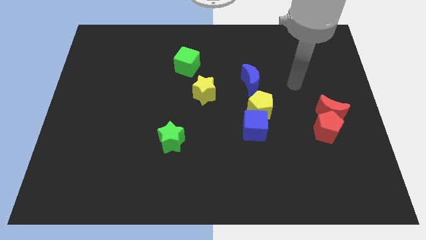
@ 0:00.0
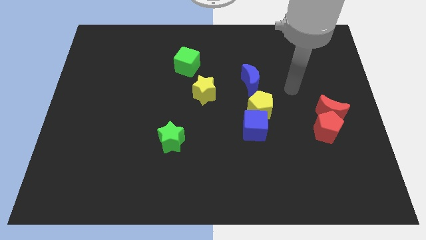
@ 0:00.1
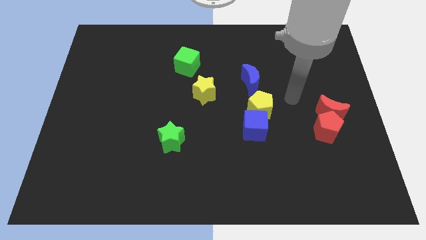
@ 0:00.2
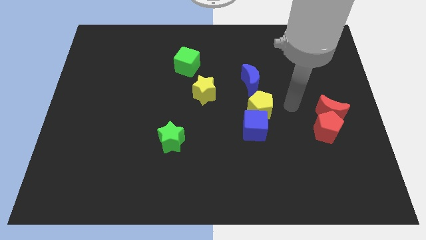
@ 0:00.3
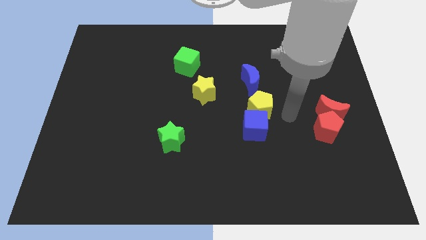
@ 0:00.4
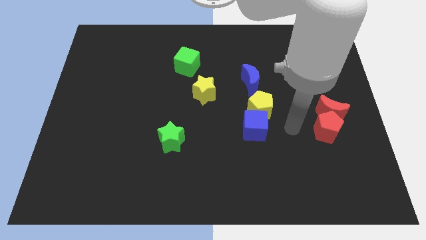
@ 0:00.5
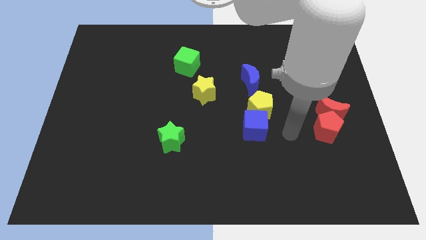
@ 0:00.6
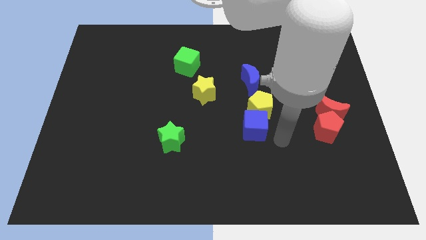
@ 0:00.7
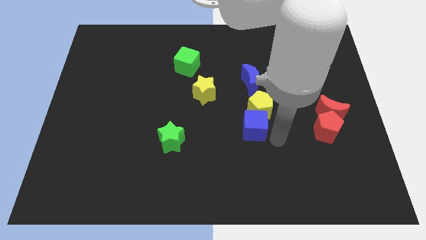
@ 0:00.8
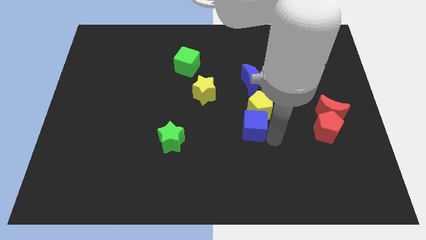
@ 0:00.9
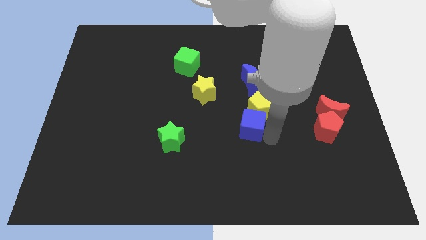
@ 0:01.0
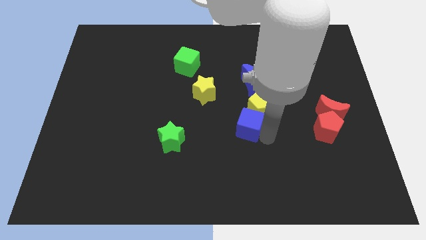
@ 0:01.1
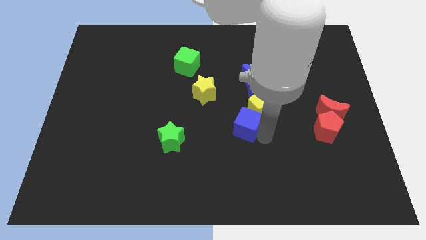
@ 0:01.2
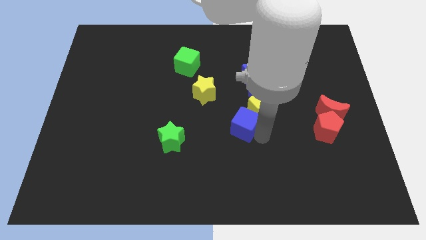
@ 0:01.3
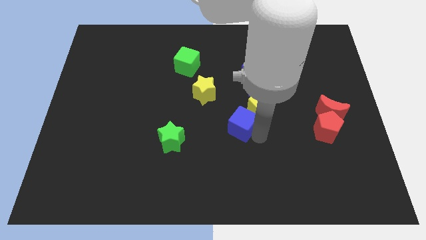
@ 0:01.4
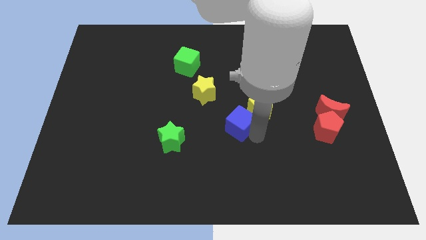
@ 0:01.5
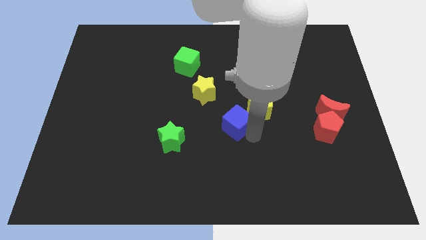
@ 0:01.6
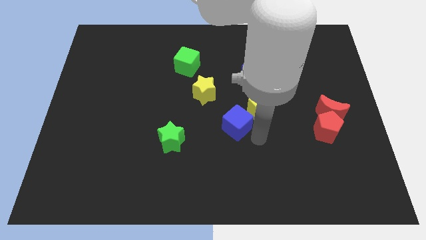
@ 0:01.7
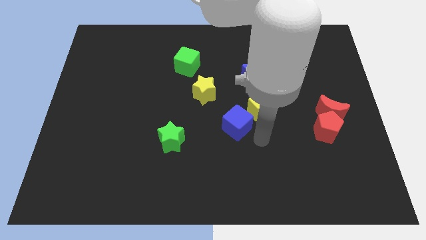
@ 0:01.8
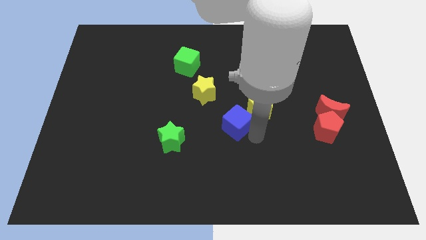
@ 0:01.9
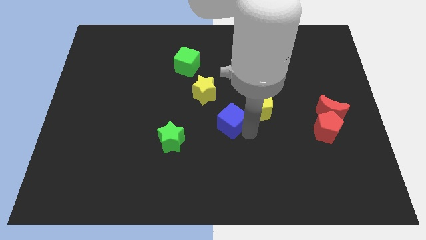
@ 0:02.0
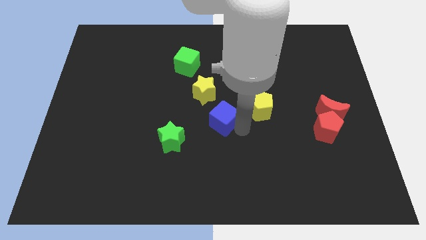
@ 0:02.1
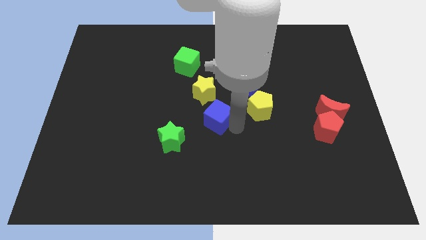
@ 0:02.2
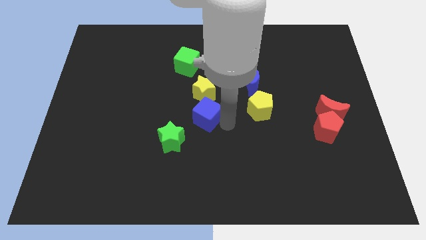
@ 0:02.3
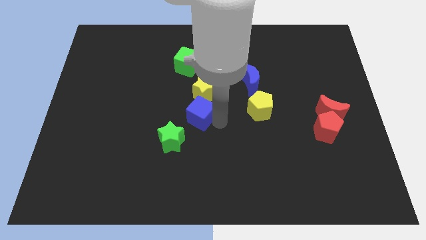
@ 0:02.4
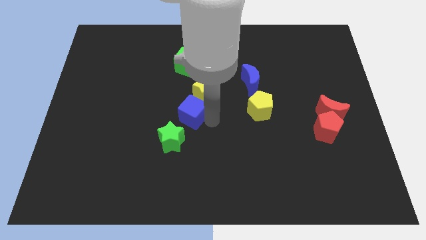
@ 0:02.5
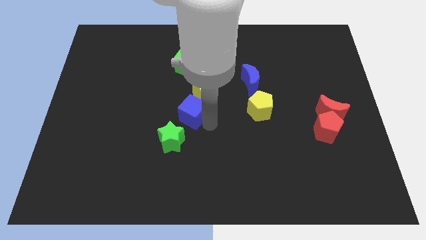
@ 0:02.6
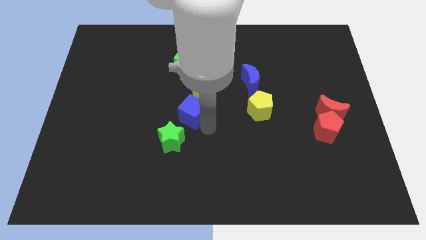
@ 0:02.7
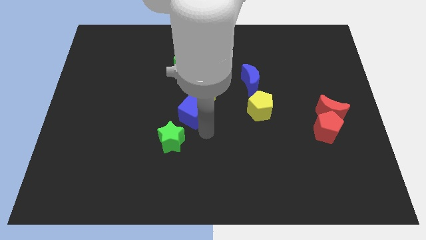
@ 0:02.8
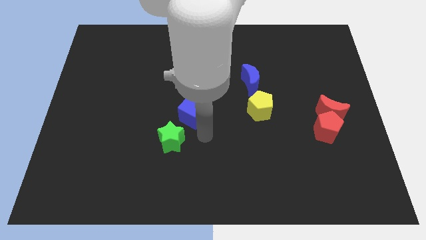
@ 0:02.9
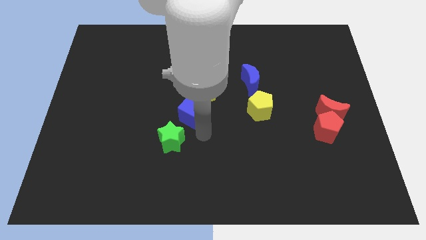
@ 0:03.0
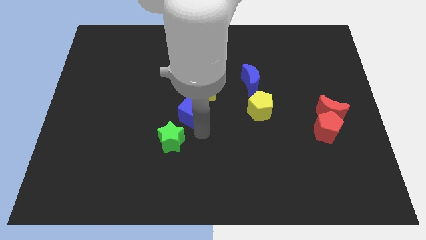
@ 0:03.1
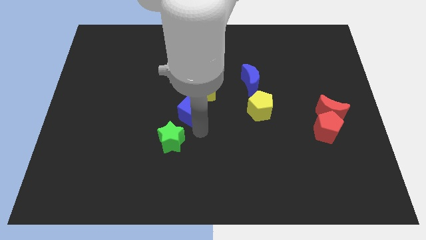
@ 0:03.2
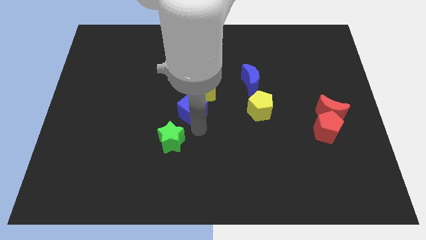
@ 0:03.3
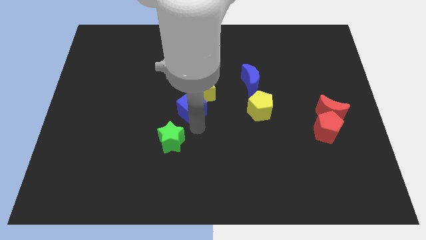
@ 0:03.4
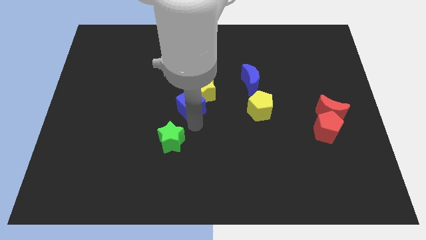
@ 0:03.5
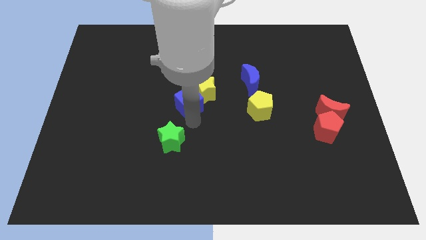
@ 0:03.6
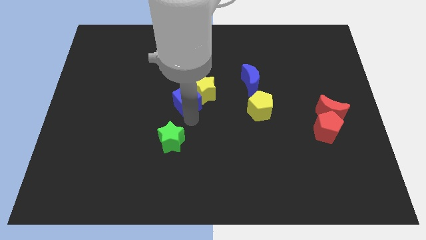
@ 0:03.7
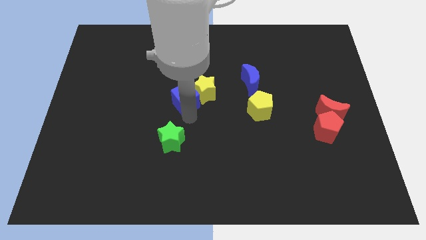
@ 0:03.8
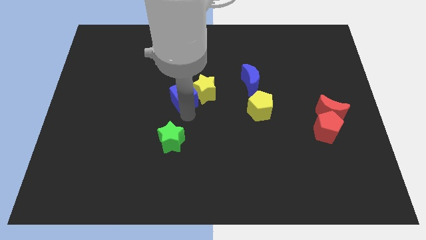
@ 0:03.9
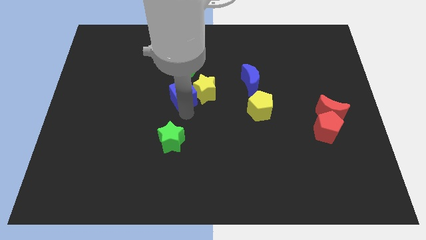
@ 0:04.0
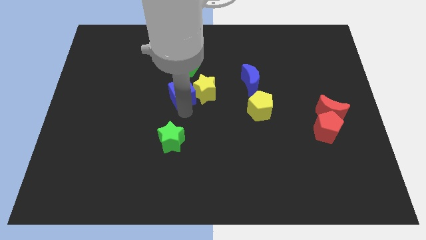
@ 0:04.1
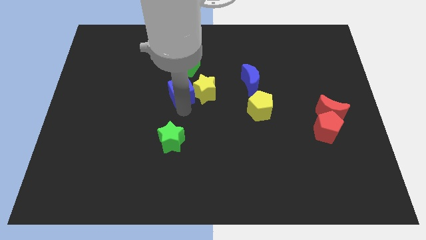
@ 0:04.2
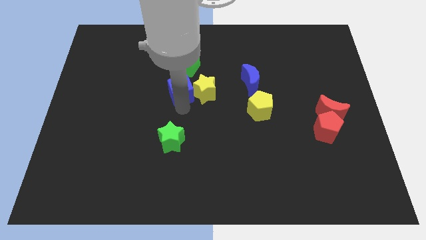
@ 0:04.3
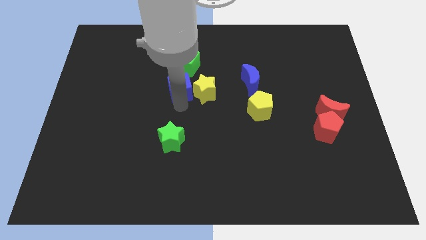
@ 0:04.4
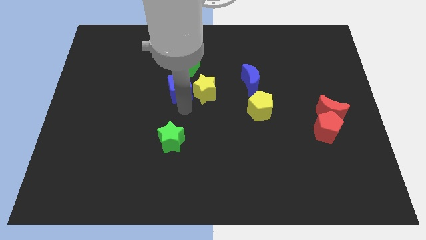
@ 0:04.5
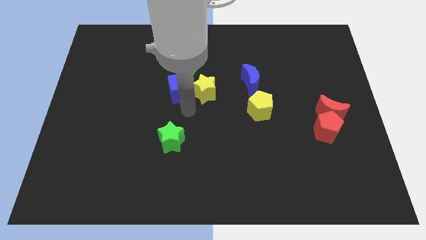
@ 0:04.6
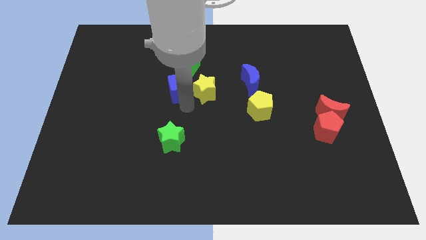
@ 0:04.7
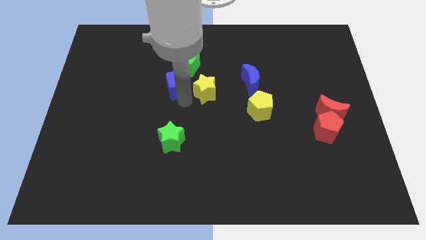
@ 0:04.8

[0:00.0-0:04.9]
push the blue cube up and to the left

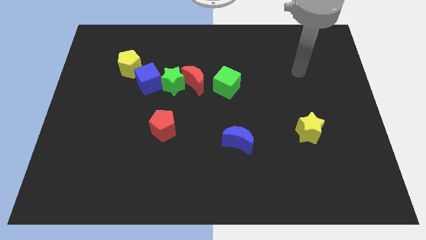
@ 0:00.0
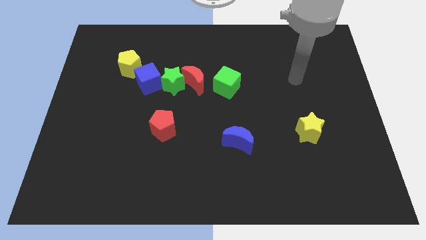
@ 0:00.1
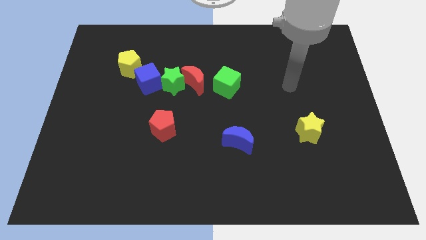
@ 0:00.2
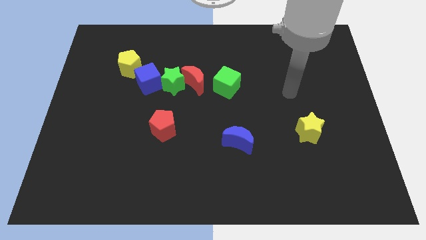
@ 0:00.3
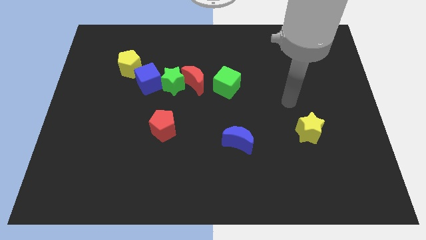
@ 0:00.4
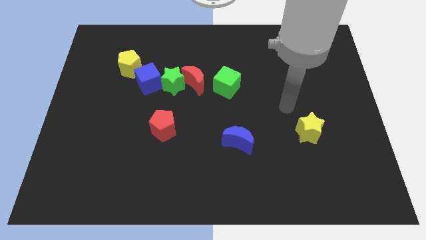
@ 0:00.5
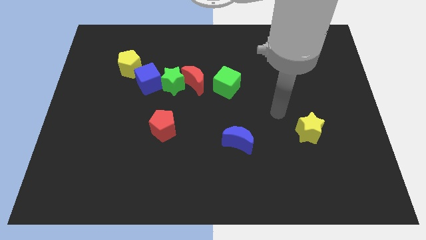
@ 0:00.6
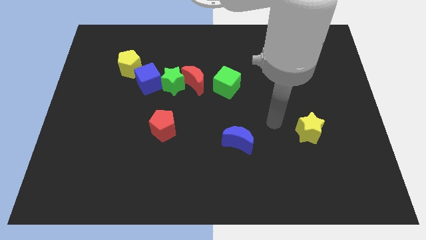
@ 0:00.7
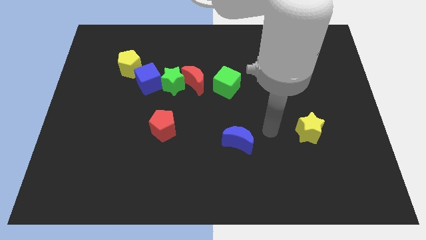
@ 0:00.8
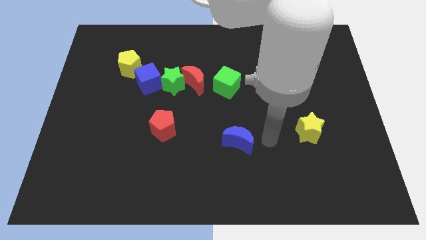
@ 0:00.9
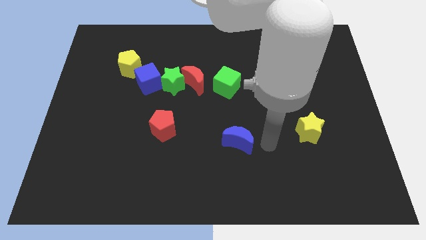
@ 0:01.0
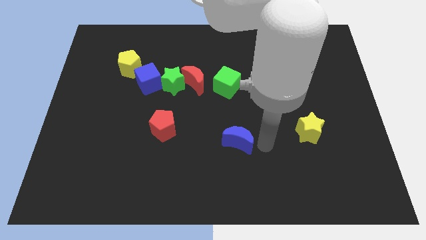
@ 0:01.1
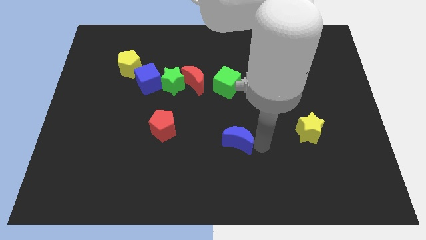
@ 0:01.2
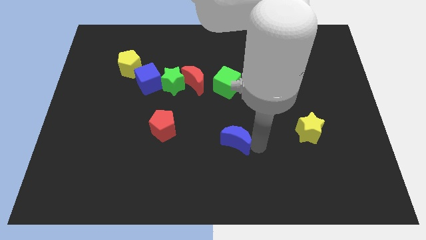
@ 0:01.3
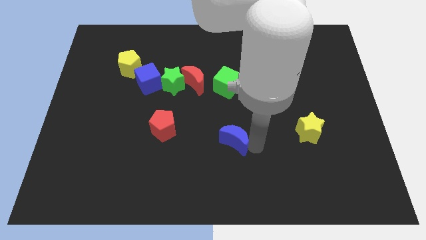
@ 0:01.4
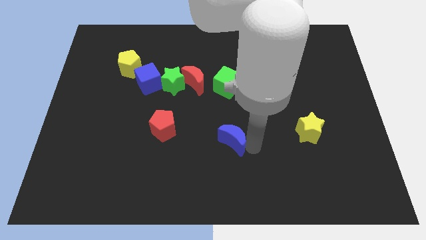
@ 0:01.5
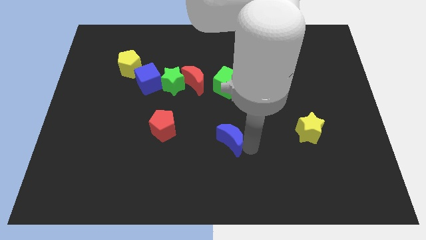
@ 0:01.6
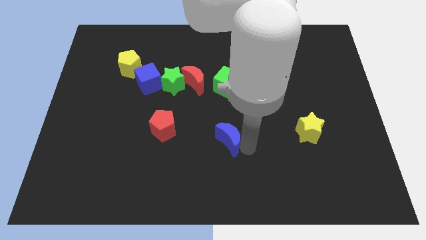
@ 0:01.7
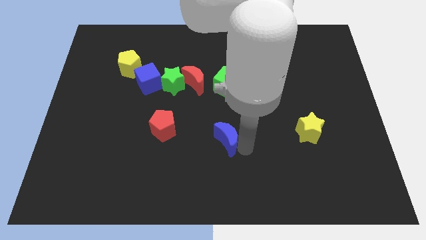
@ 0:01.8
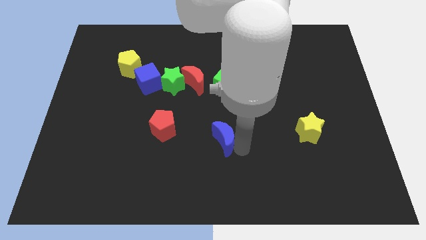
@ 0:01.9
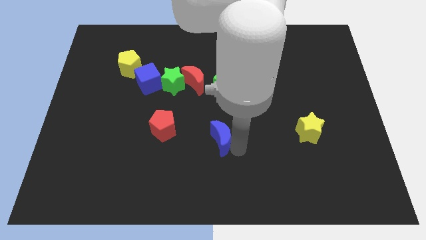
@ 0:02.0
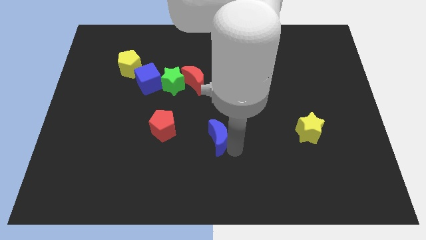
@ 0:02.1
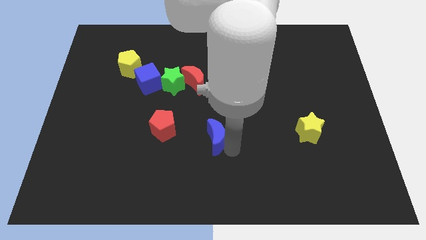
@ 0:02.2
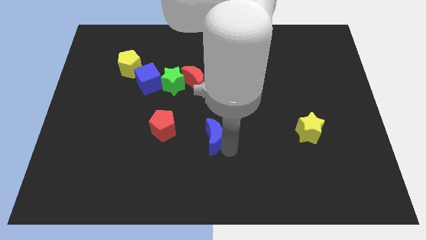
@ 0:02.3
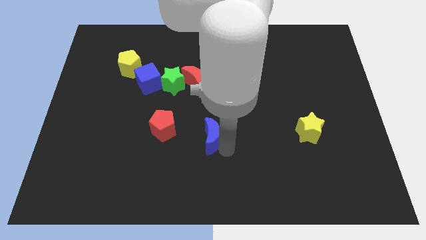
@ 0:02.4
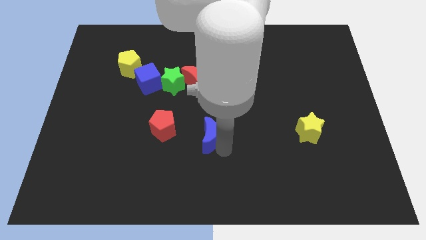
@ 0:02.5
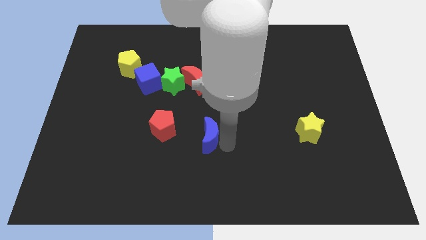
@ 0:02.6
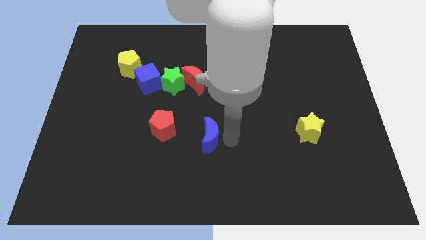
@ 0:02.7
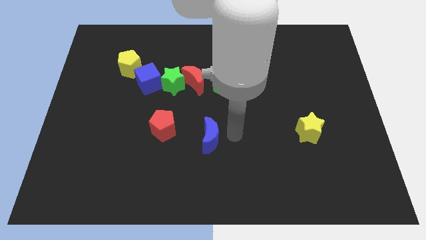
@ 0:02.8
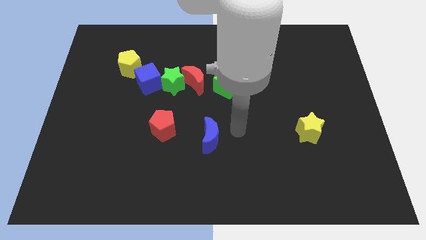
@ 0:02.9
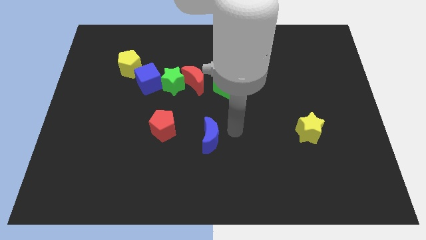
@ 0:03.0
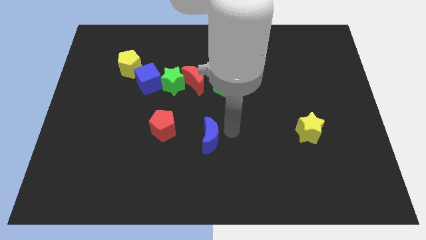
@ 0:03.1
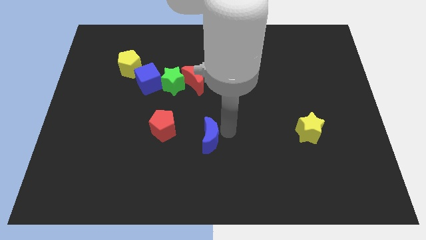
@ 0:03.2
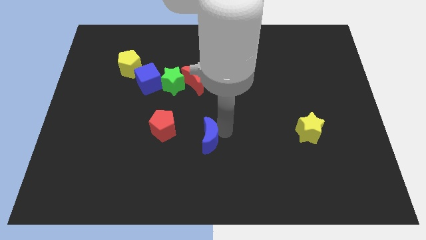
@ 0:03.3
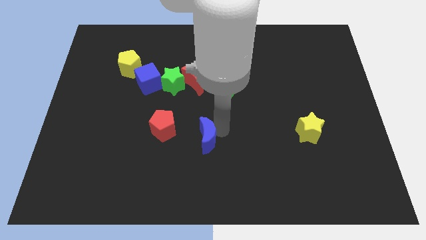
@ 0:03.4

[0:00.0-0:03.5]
slightly push the blue moon to the left
